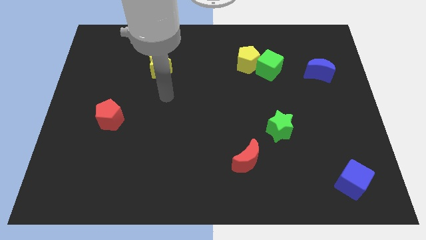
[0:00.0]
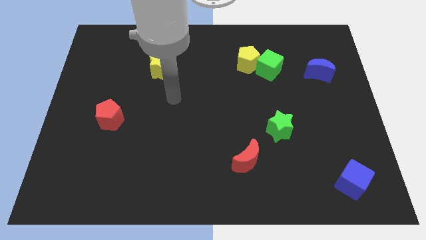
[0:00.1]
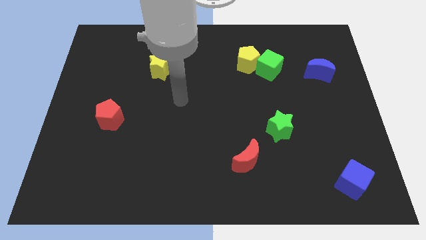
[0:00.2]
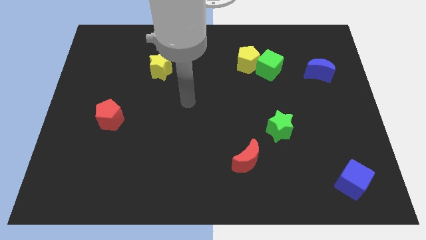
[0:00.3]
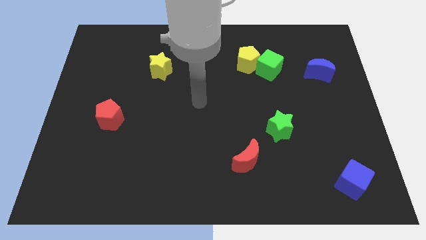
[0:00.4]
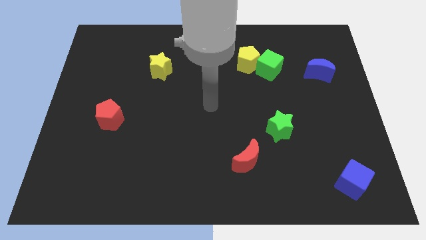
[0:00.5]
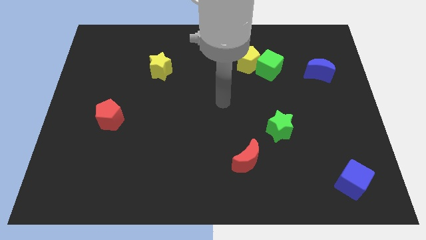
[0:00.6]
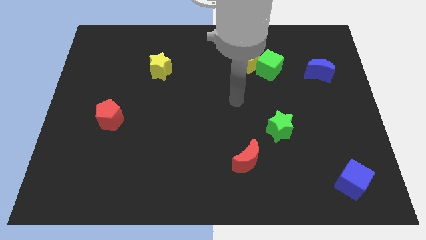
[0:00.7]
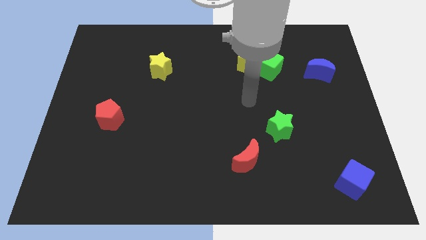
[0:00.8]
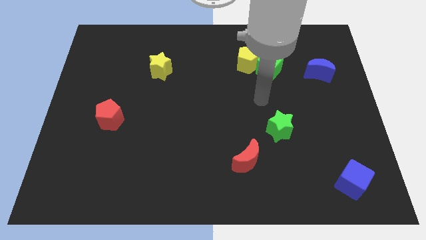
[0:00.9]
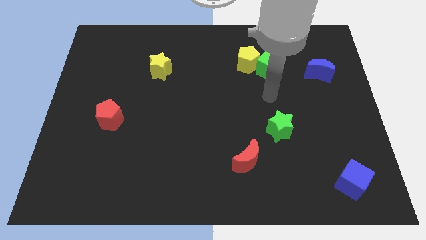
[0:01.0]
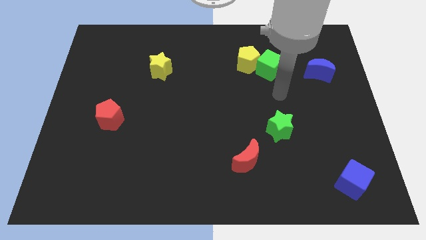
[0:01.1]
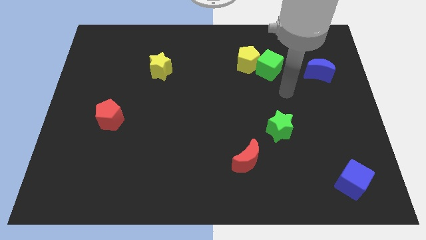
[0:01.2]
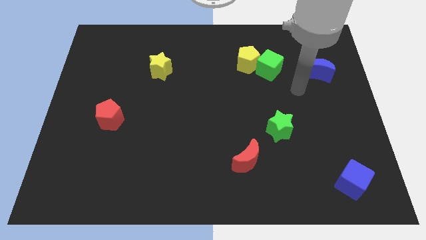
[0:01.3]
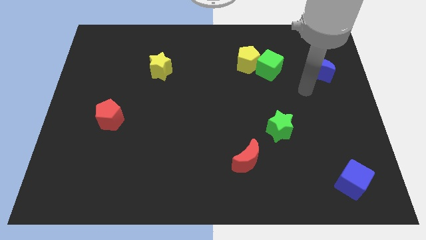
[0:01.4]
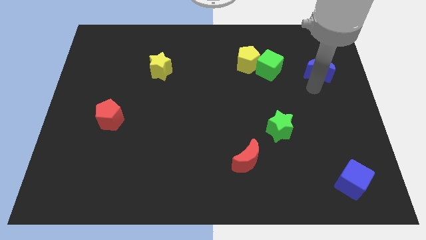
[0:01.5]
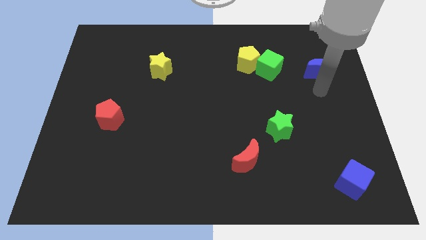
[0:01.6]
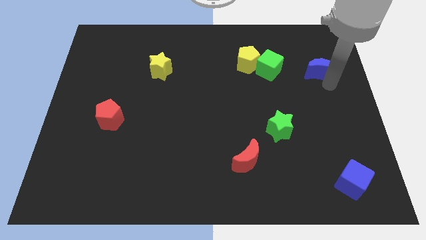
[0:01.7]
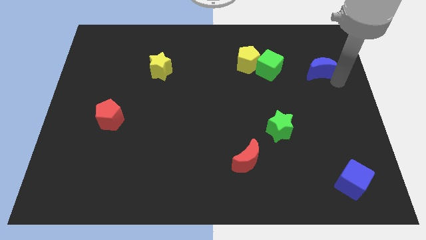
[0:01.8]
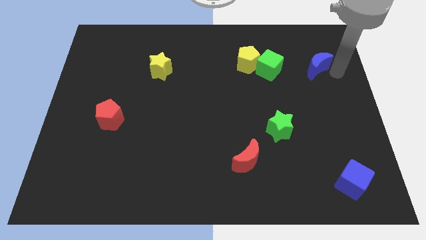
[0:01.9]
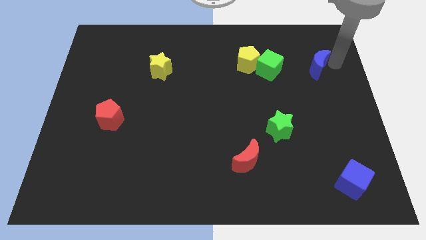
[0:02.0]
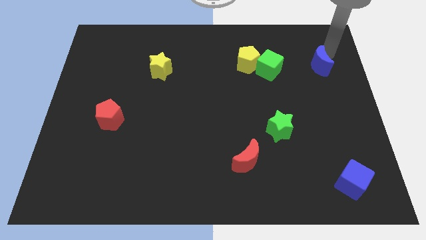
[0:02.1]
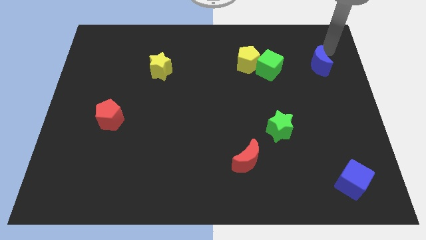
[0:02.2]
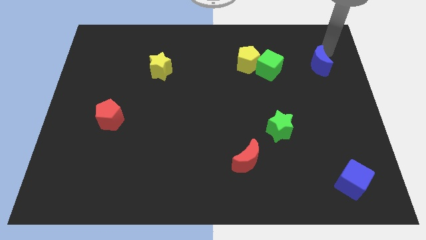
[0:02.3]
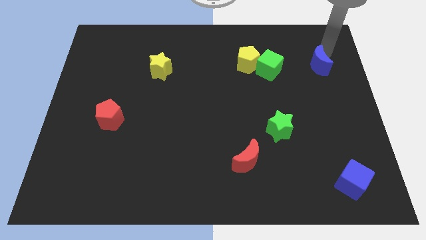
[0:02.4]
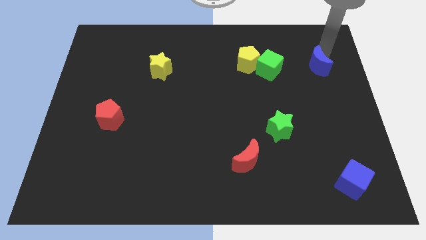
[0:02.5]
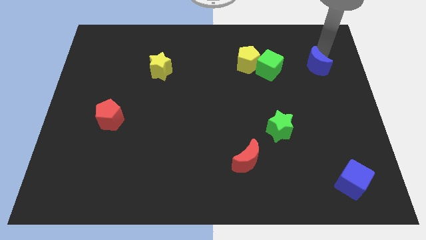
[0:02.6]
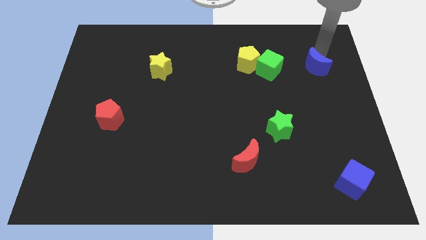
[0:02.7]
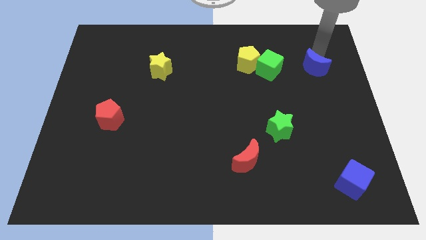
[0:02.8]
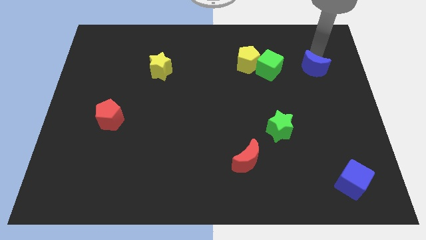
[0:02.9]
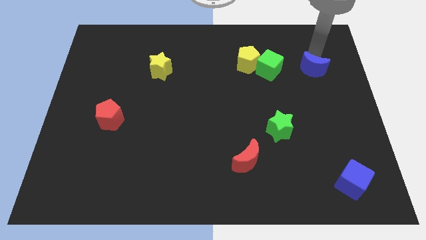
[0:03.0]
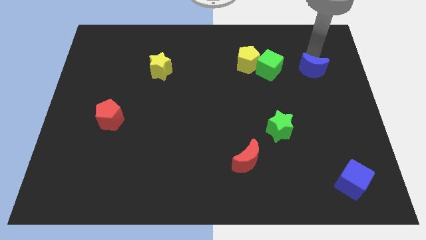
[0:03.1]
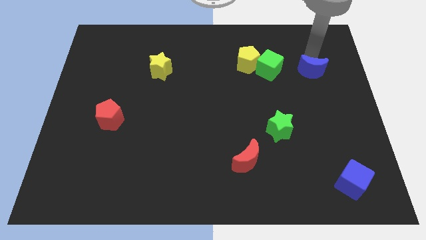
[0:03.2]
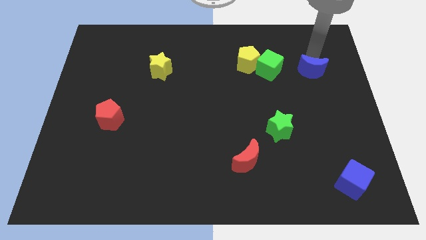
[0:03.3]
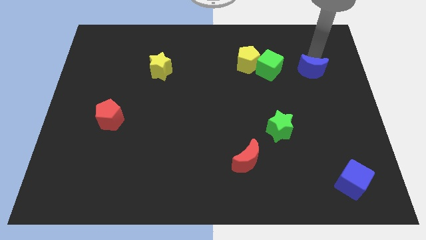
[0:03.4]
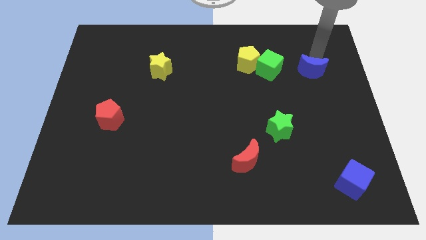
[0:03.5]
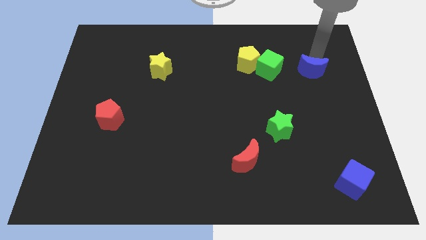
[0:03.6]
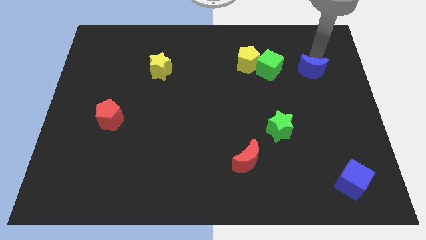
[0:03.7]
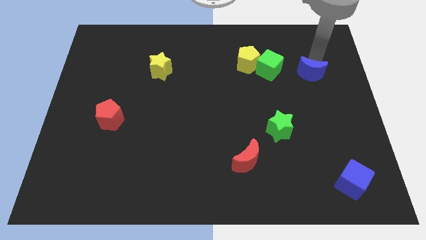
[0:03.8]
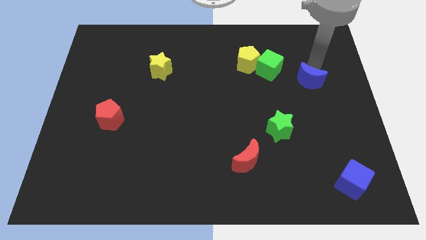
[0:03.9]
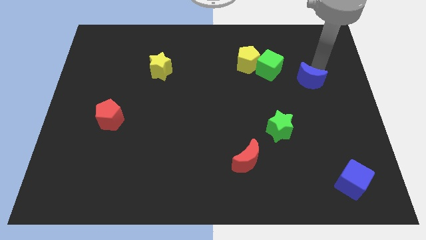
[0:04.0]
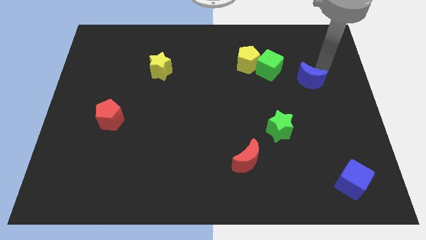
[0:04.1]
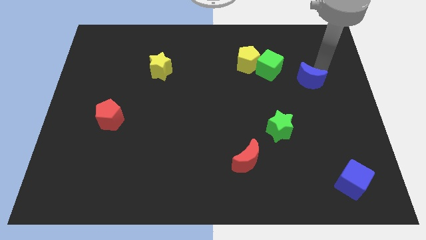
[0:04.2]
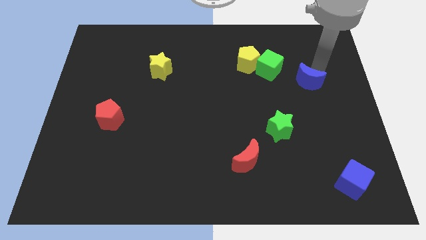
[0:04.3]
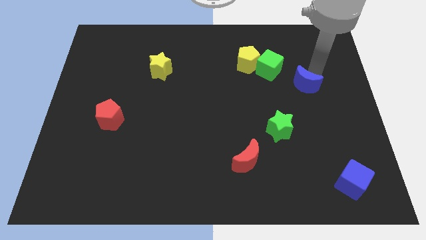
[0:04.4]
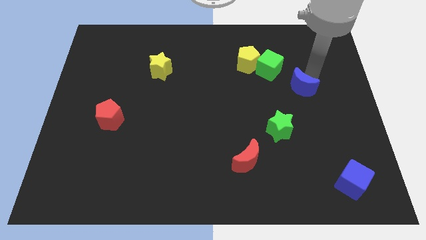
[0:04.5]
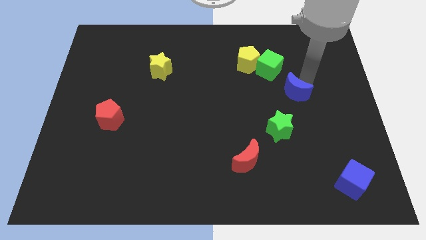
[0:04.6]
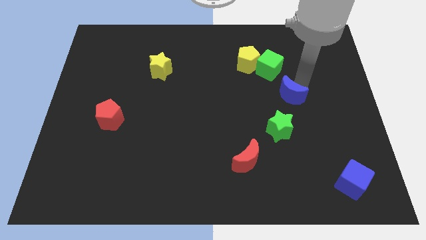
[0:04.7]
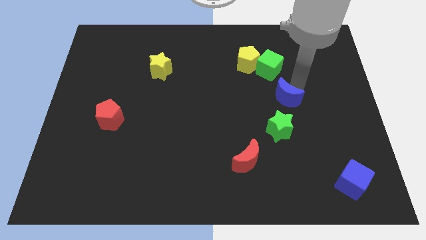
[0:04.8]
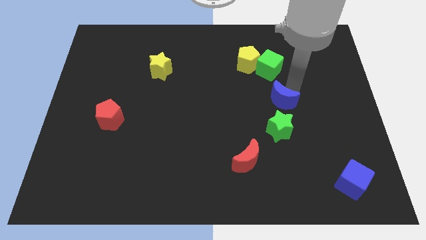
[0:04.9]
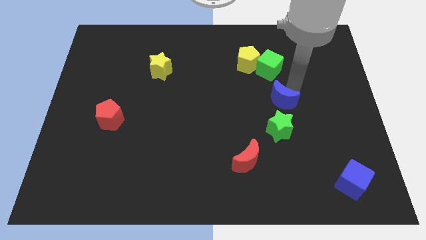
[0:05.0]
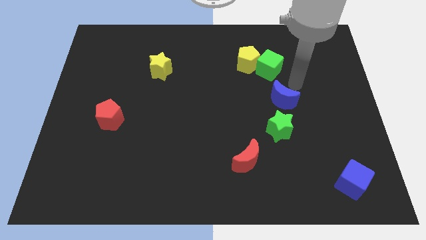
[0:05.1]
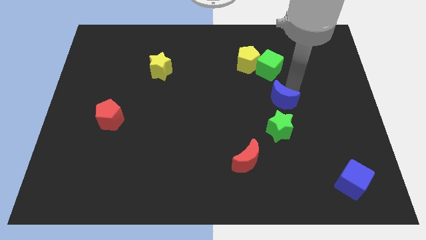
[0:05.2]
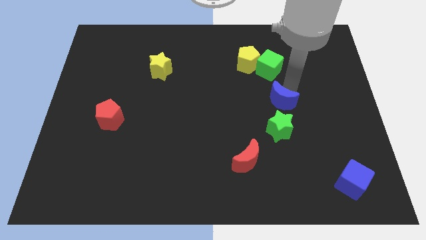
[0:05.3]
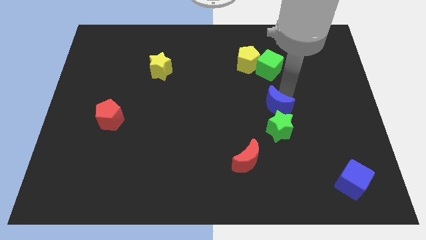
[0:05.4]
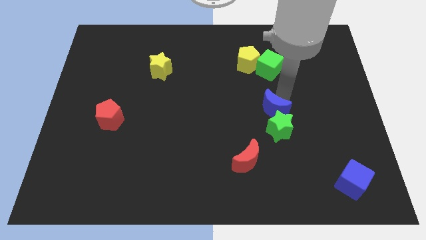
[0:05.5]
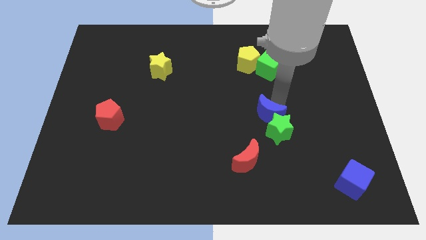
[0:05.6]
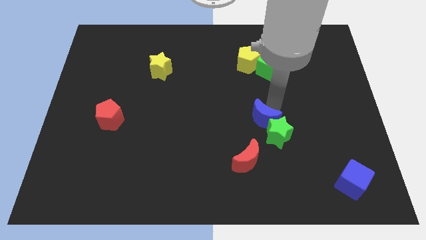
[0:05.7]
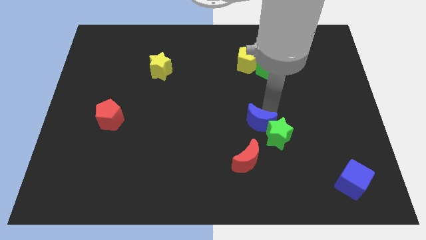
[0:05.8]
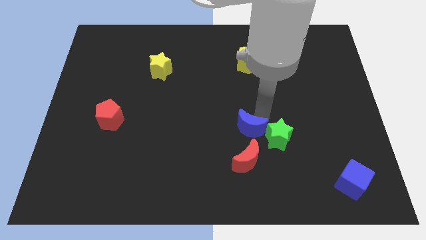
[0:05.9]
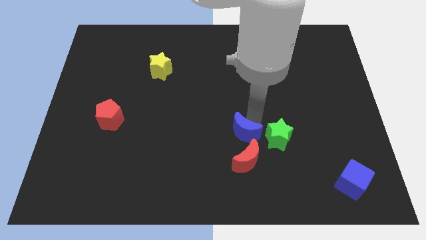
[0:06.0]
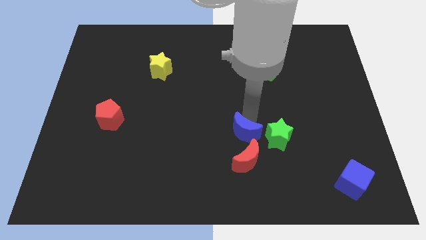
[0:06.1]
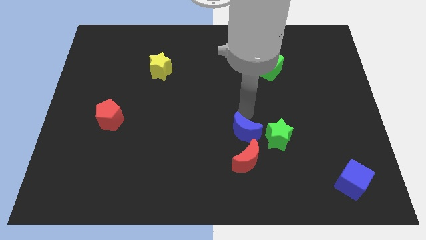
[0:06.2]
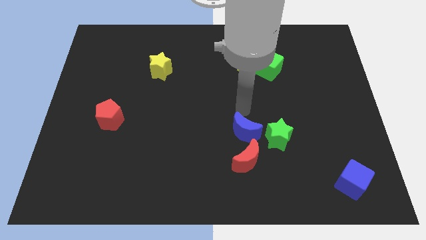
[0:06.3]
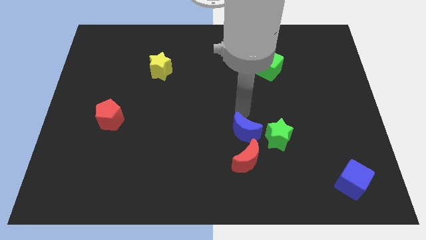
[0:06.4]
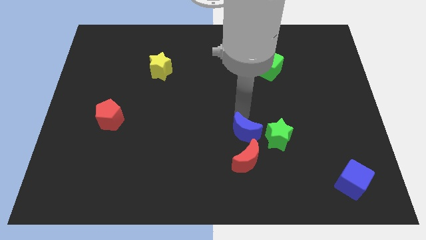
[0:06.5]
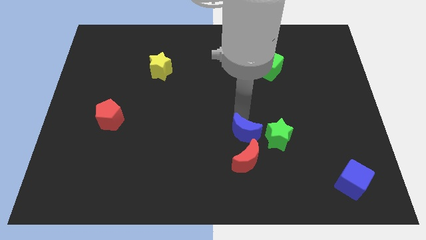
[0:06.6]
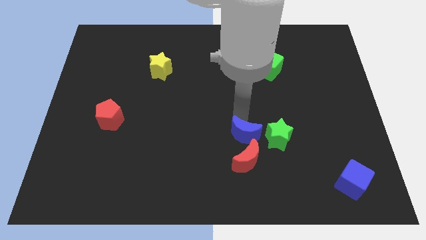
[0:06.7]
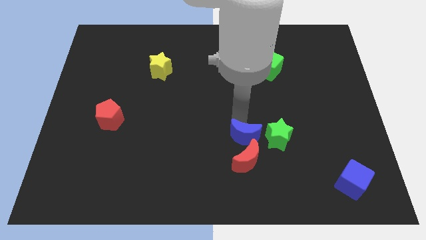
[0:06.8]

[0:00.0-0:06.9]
move the blue moon next to the red moon

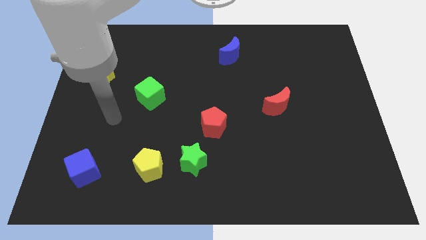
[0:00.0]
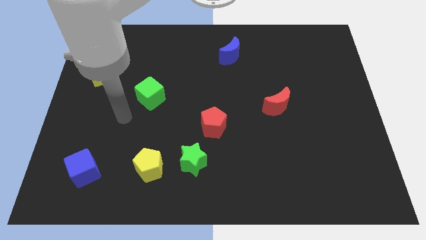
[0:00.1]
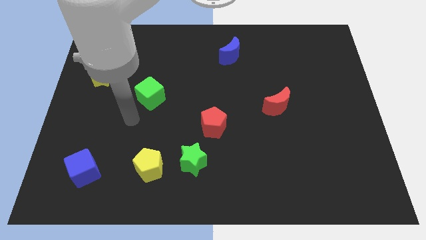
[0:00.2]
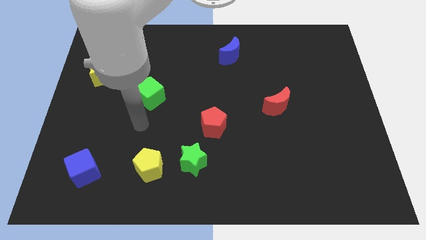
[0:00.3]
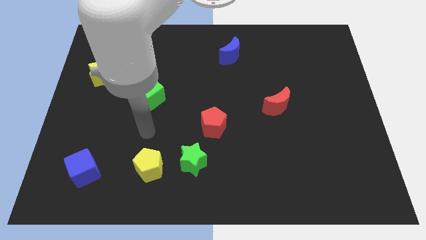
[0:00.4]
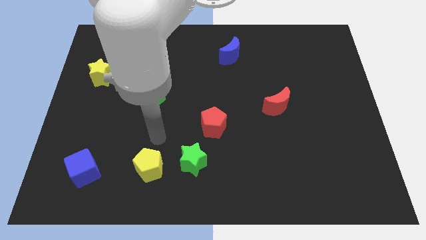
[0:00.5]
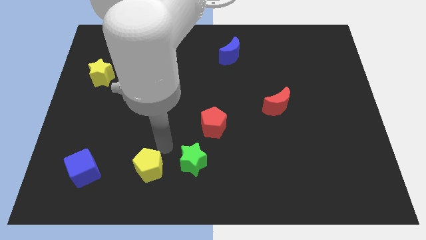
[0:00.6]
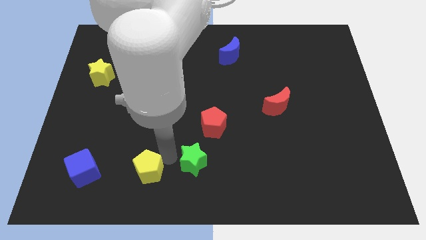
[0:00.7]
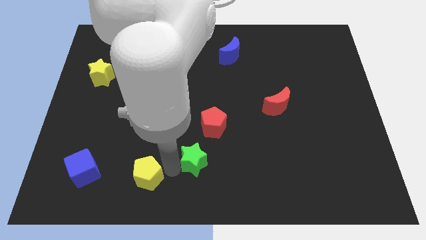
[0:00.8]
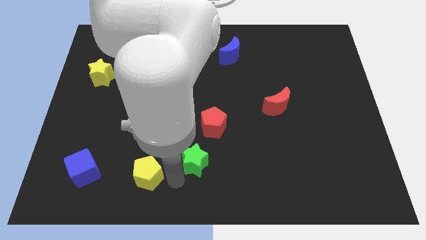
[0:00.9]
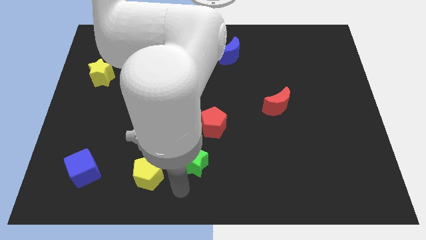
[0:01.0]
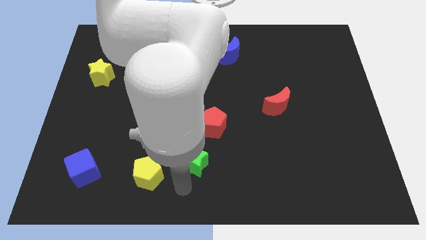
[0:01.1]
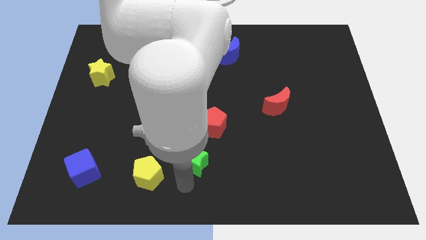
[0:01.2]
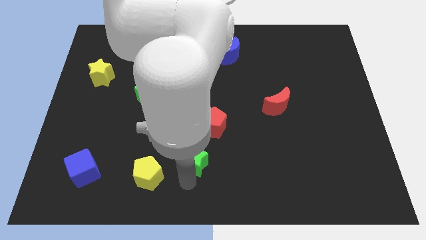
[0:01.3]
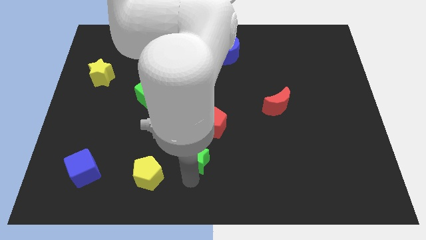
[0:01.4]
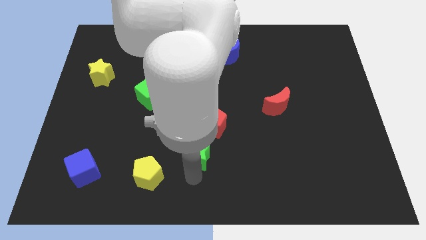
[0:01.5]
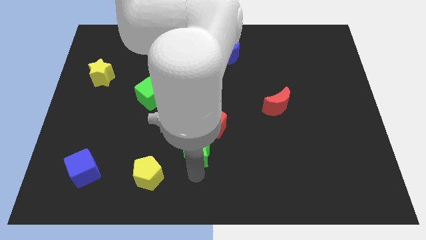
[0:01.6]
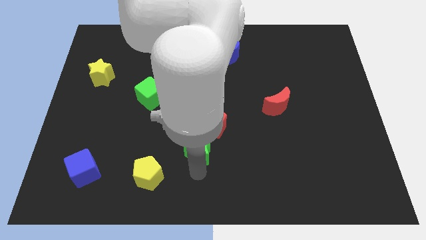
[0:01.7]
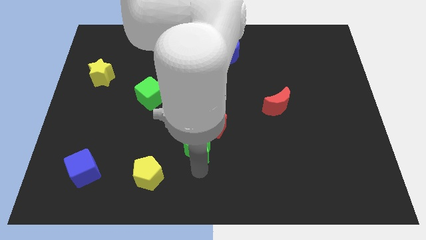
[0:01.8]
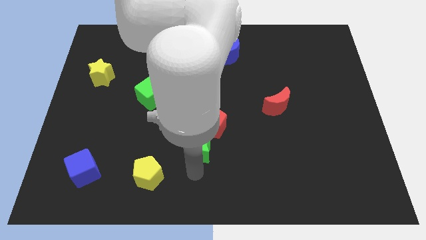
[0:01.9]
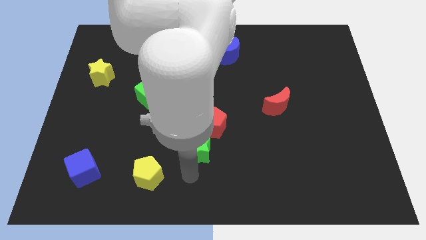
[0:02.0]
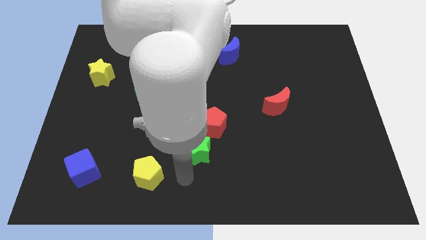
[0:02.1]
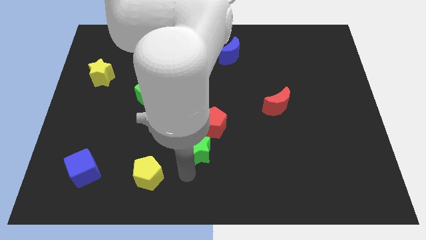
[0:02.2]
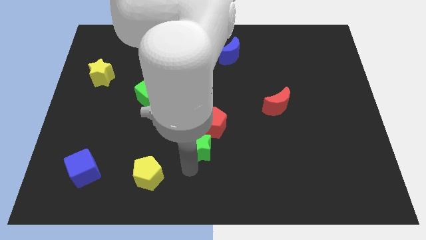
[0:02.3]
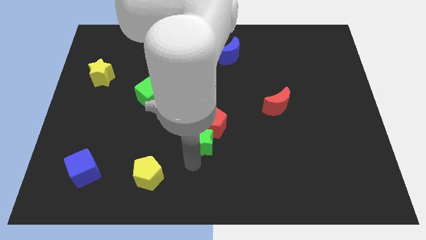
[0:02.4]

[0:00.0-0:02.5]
push the green star towards the red pentagon
